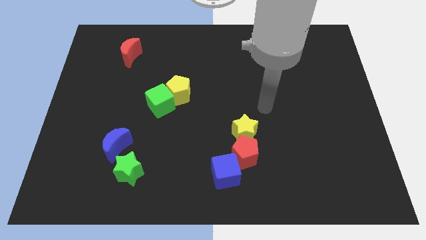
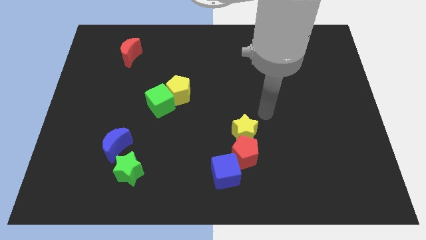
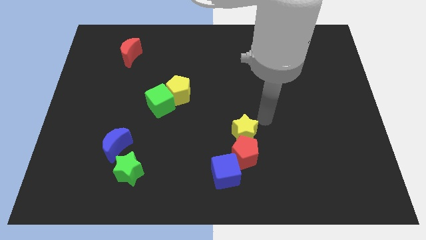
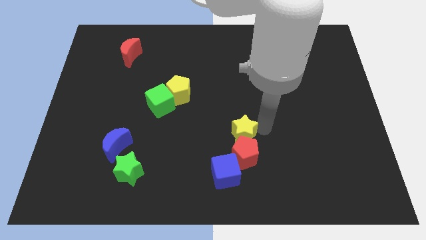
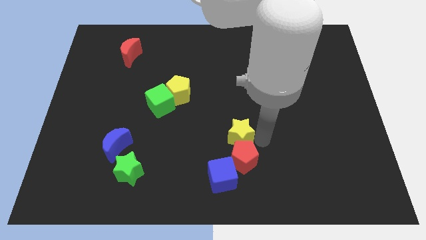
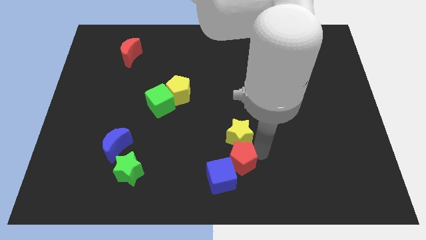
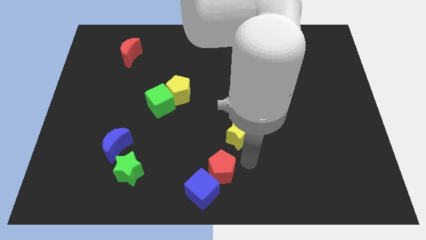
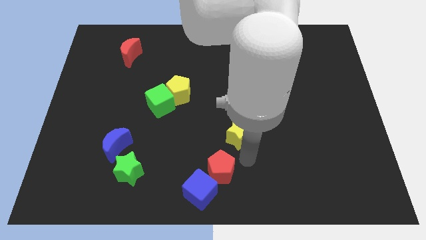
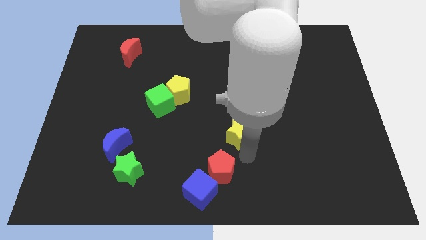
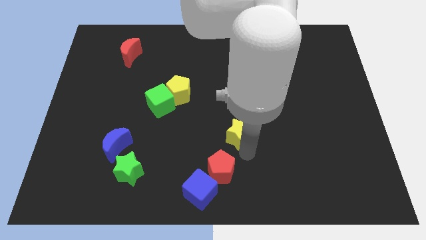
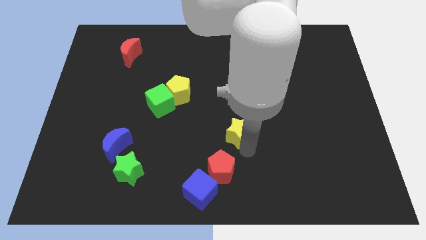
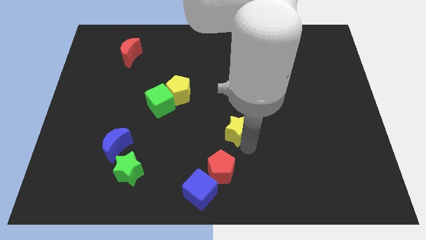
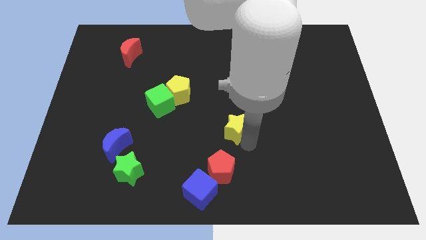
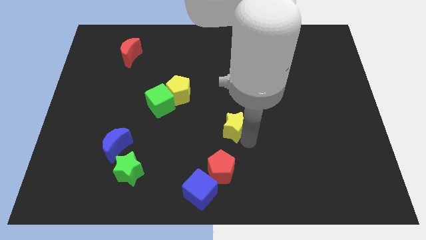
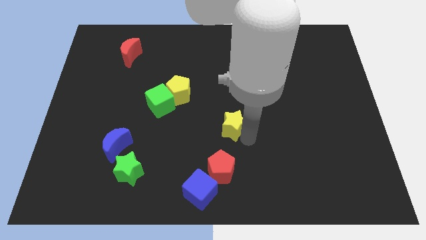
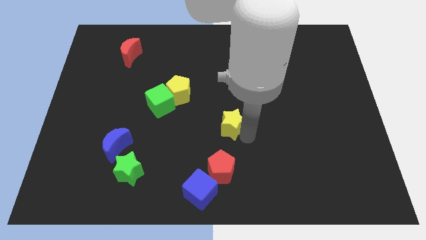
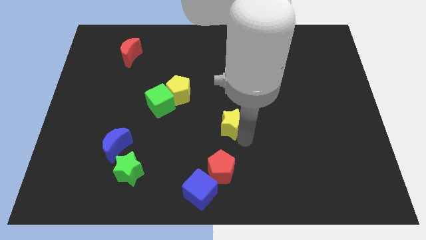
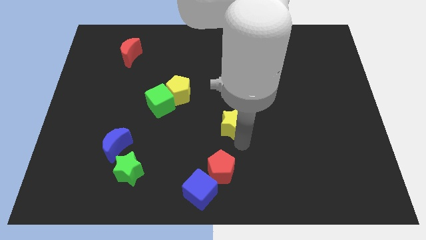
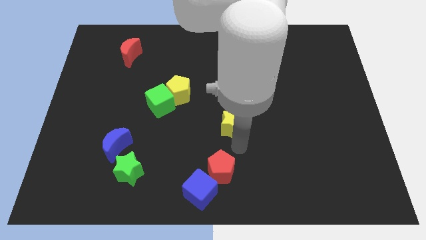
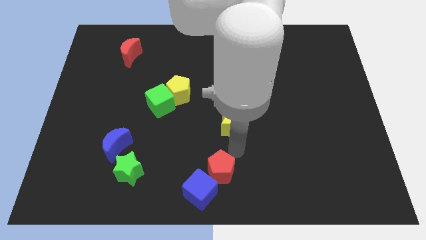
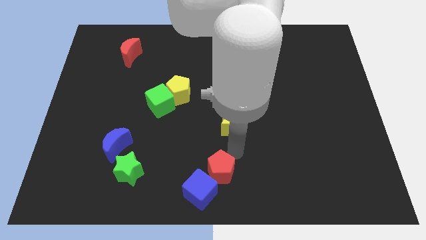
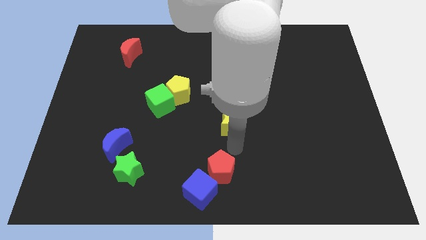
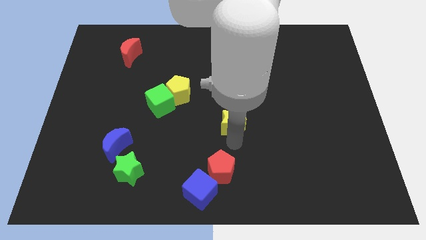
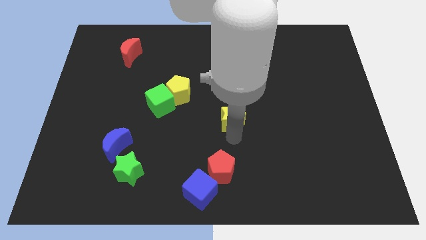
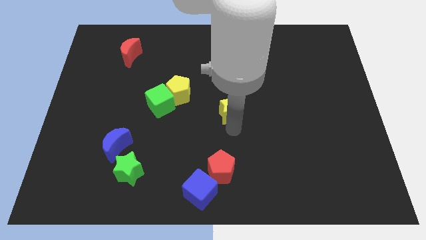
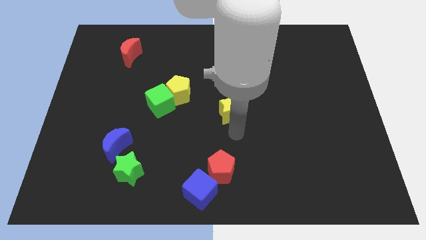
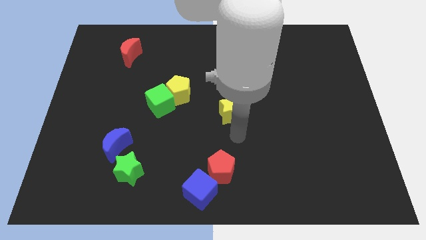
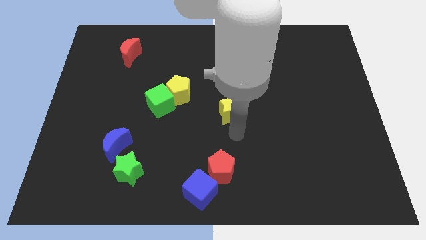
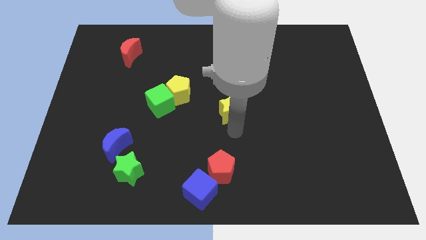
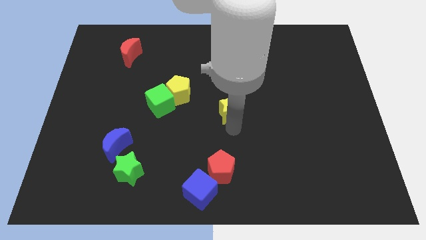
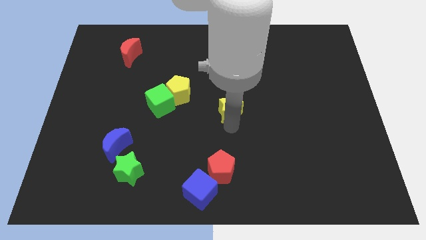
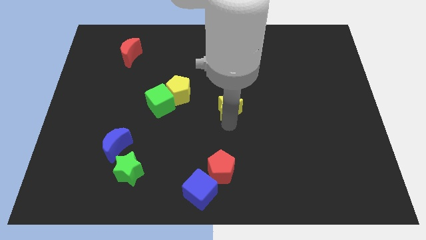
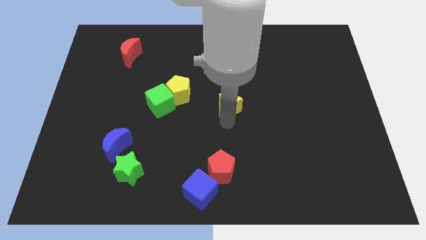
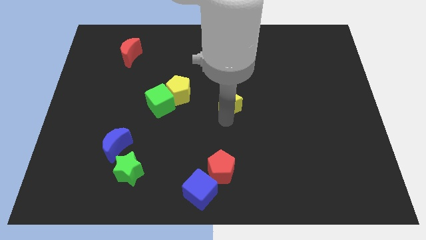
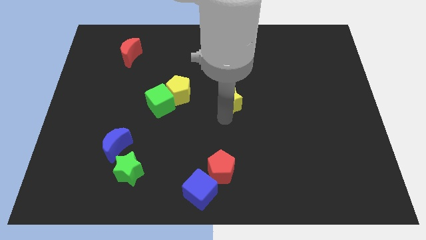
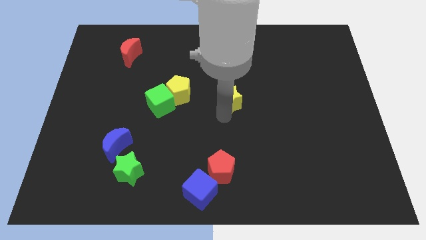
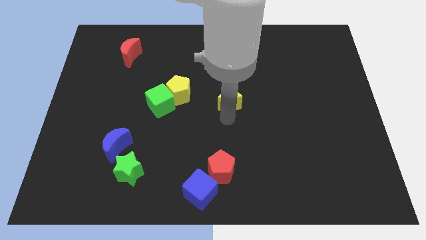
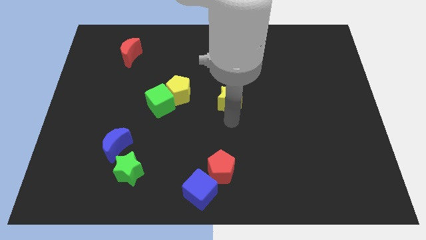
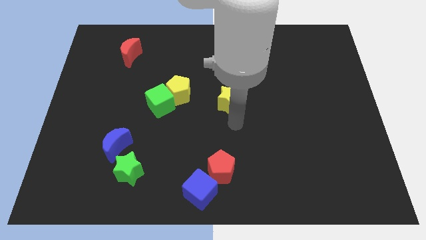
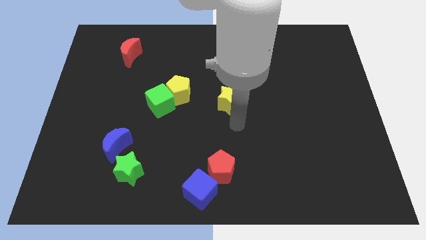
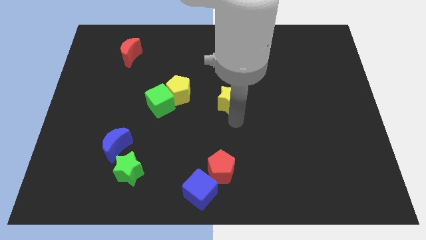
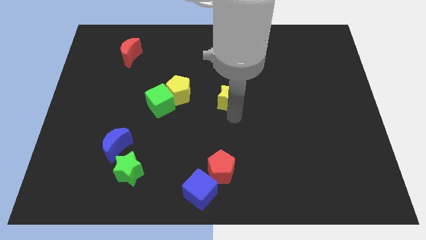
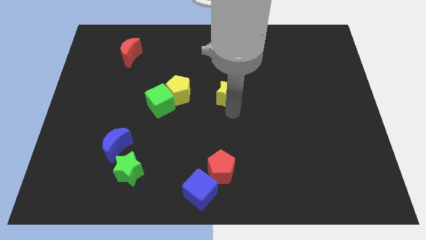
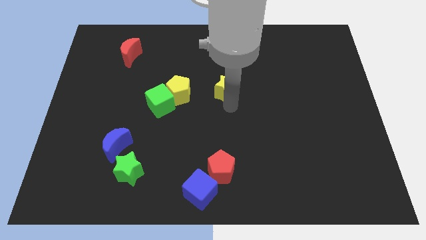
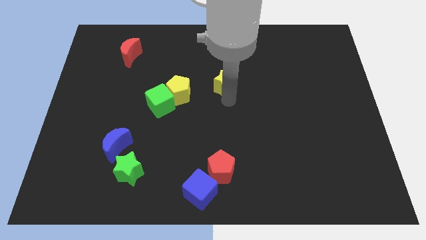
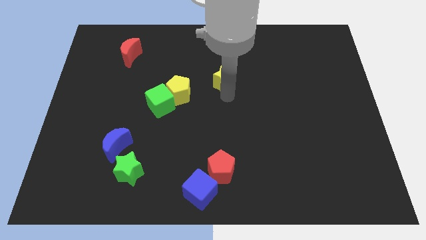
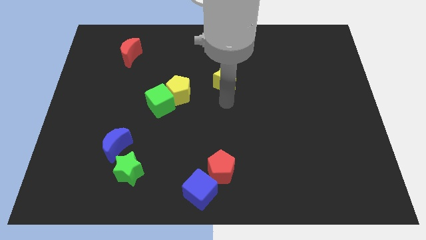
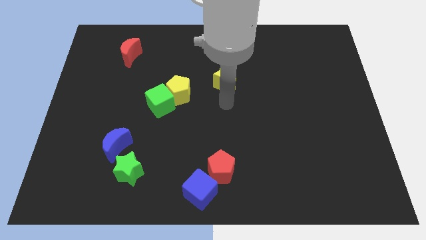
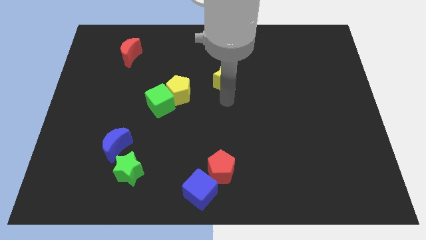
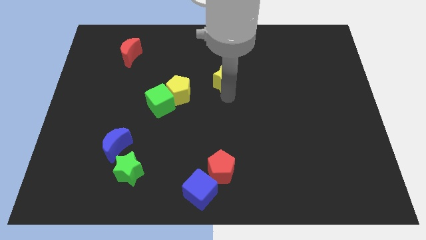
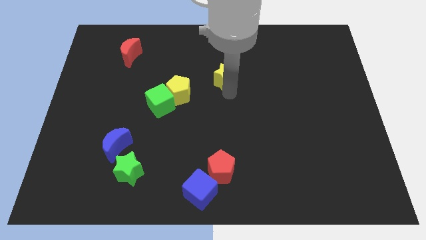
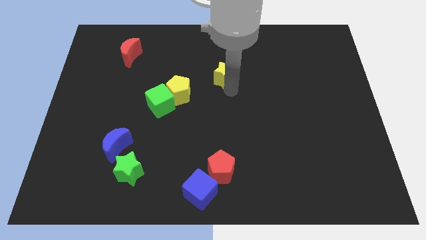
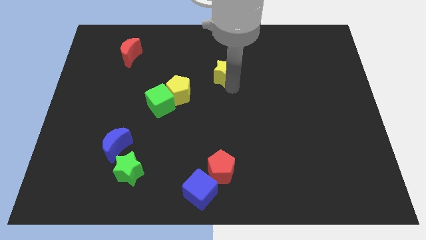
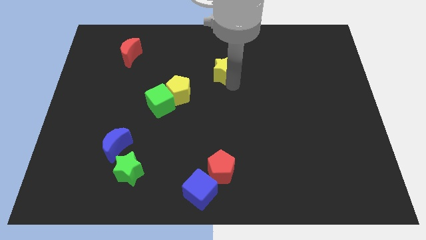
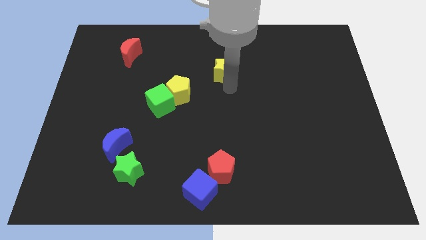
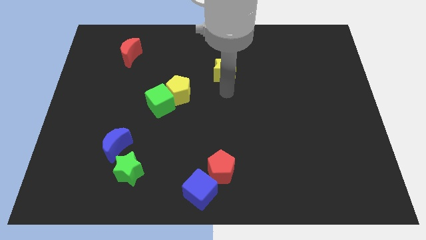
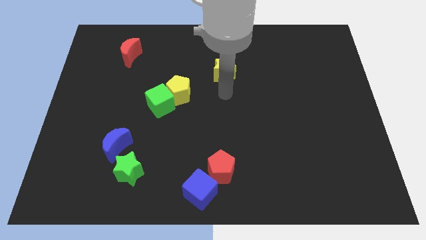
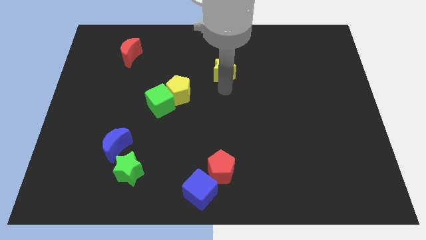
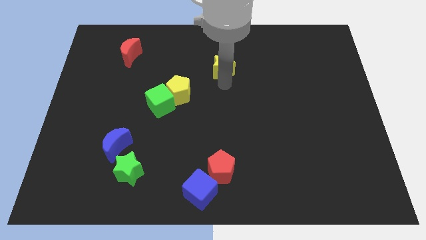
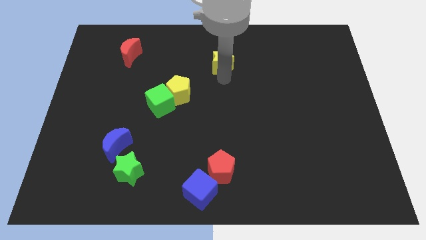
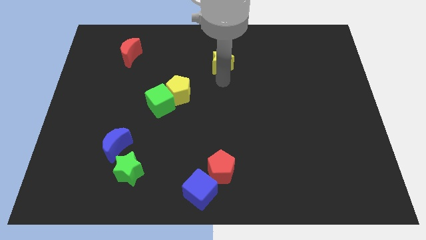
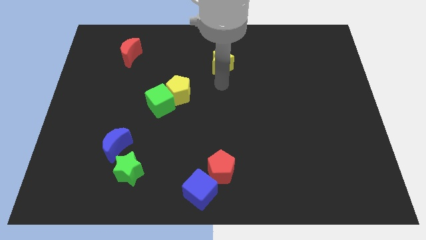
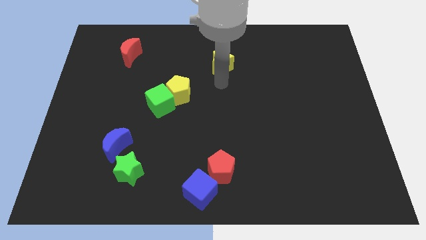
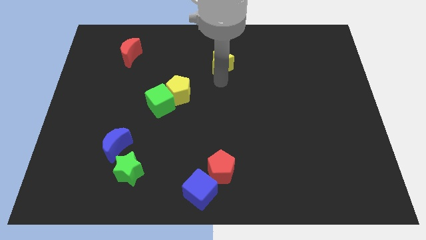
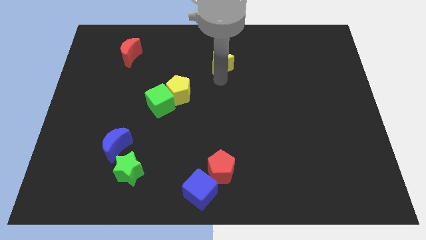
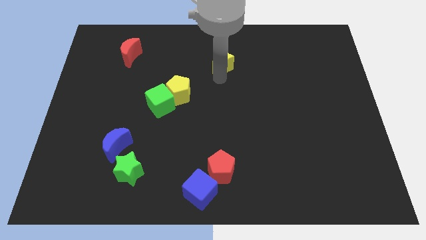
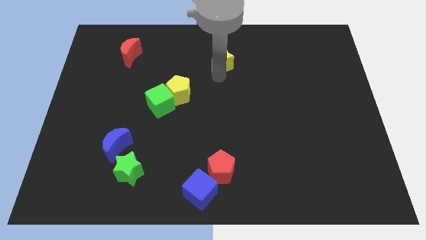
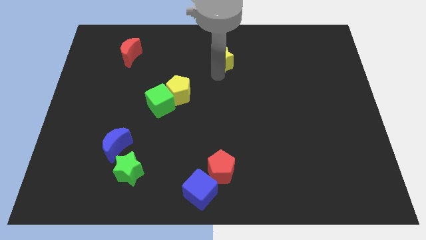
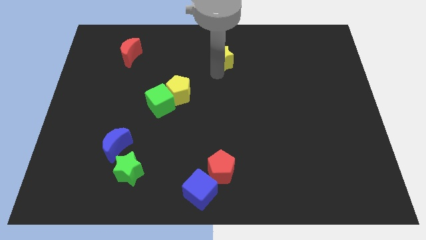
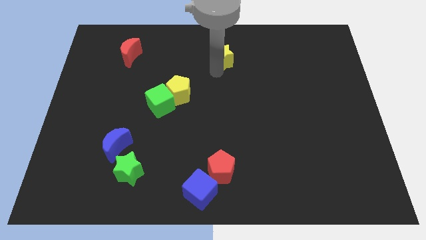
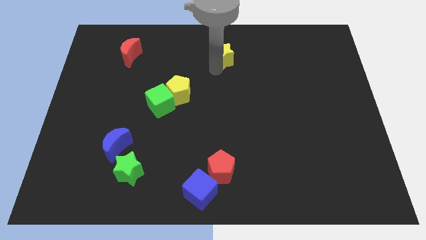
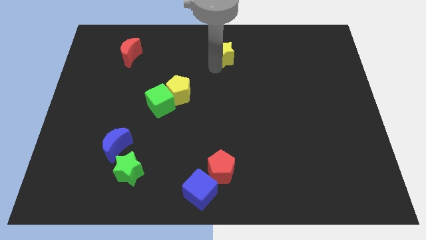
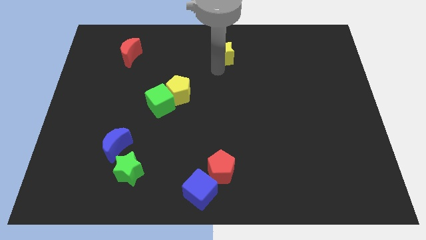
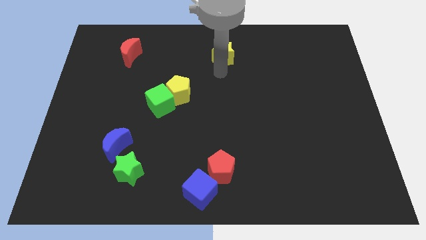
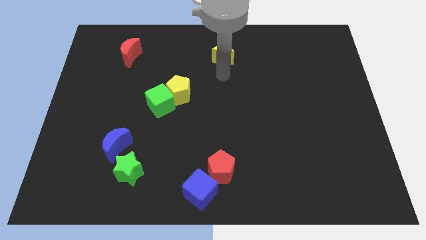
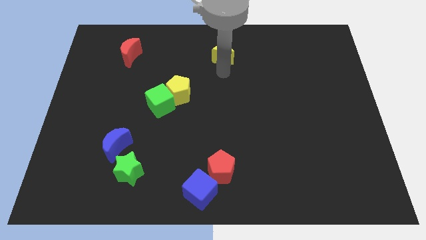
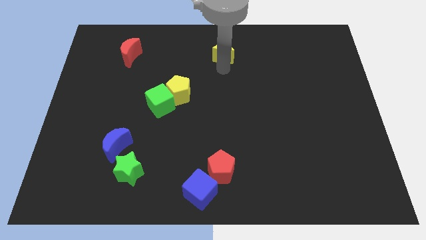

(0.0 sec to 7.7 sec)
move the yellow star to the towards your base
